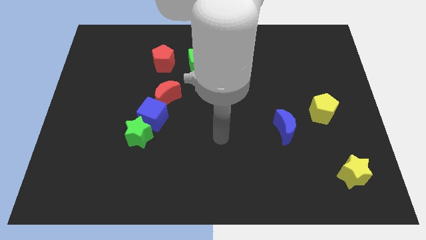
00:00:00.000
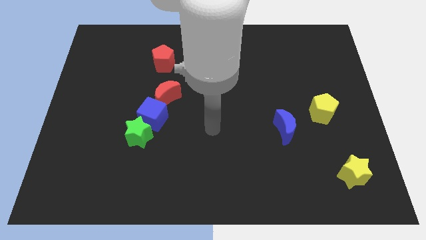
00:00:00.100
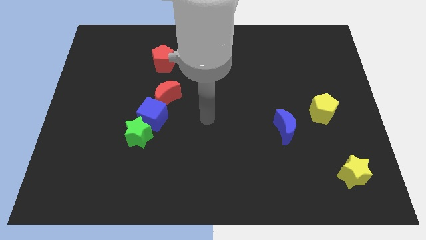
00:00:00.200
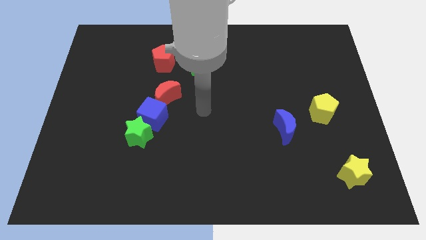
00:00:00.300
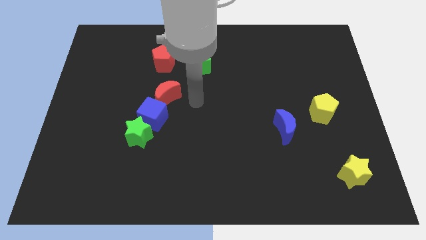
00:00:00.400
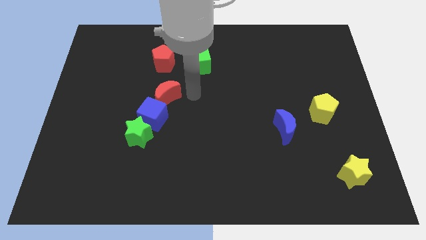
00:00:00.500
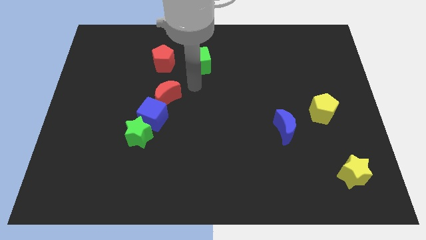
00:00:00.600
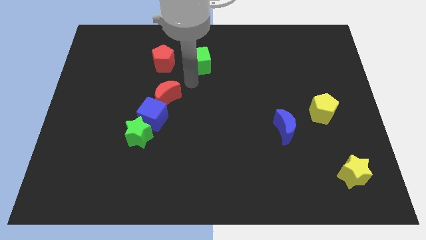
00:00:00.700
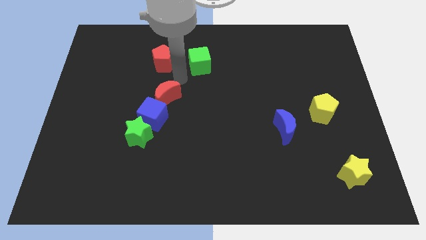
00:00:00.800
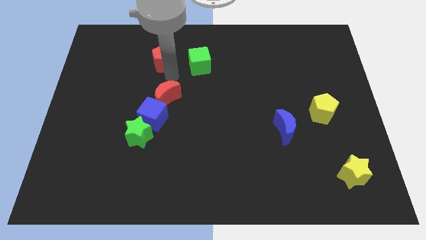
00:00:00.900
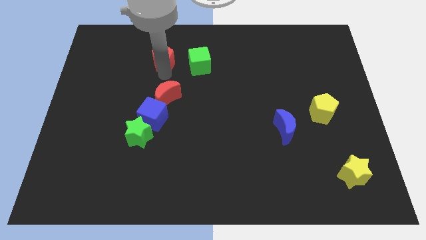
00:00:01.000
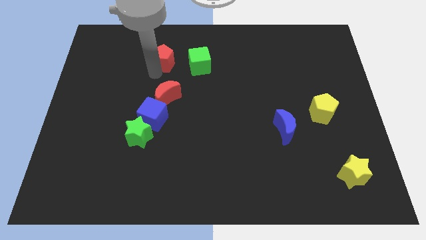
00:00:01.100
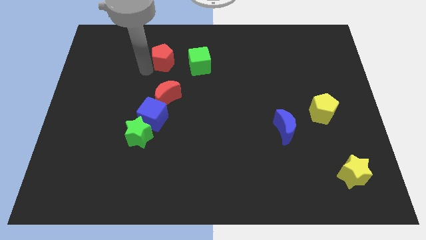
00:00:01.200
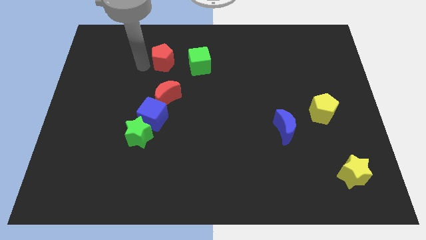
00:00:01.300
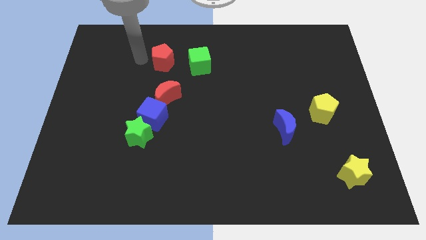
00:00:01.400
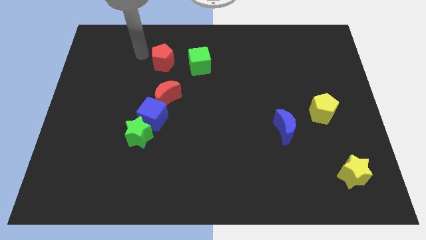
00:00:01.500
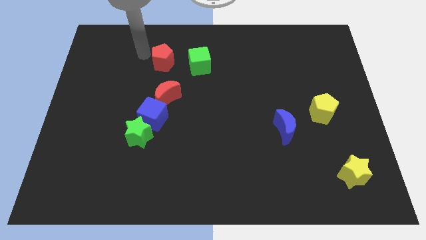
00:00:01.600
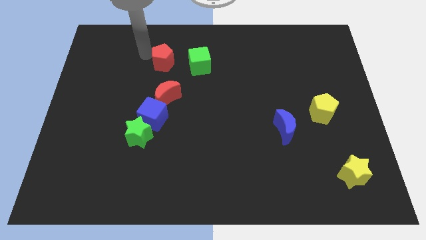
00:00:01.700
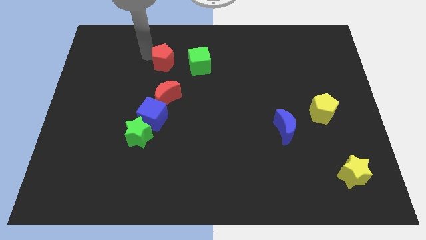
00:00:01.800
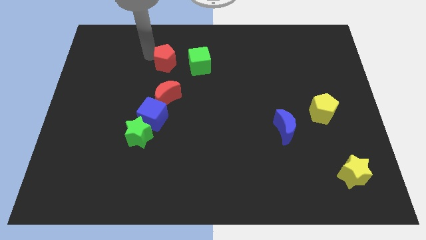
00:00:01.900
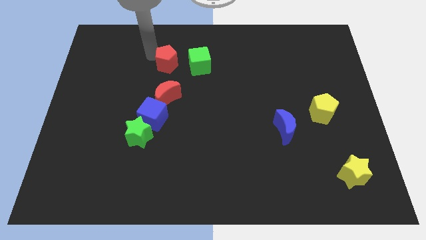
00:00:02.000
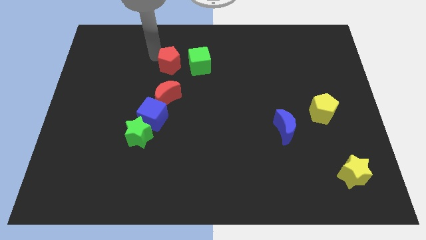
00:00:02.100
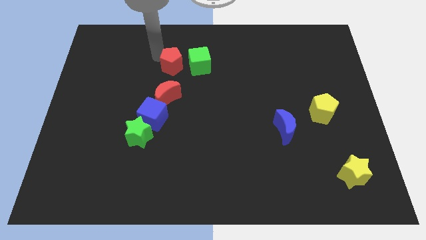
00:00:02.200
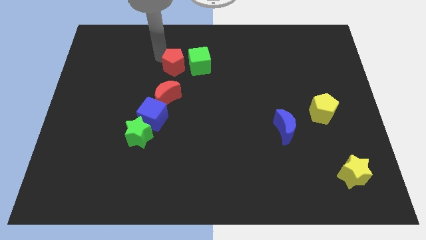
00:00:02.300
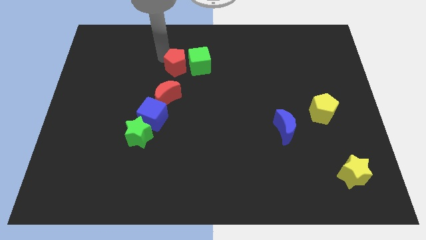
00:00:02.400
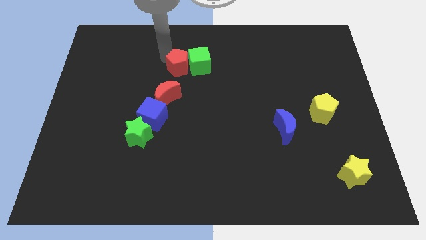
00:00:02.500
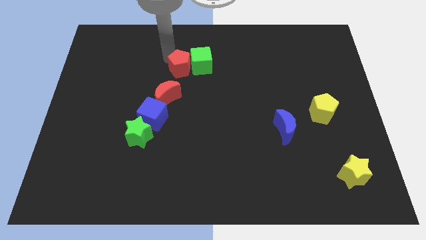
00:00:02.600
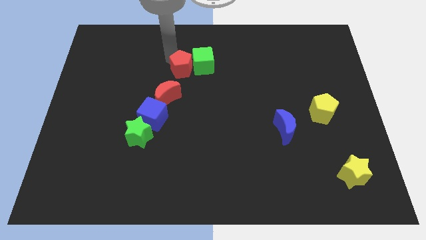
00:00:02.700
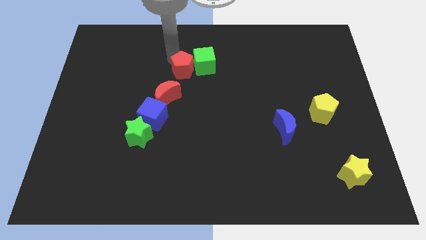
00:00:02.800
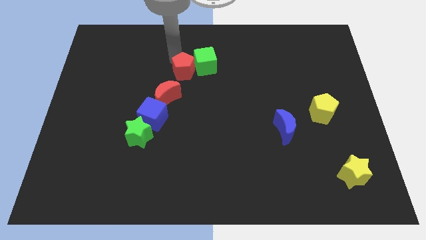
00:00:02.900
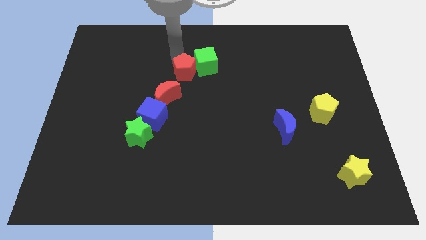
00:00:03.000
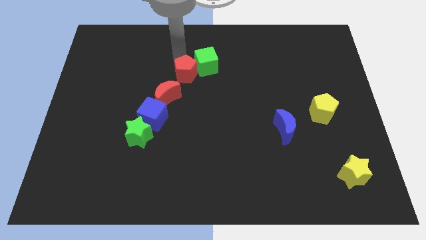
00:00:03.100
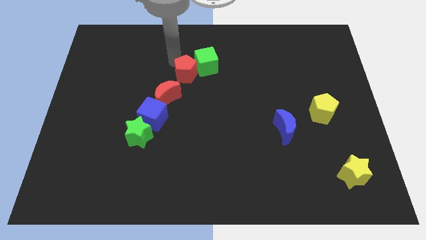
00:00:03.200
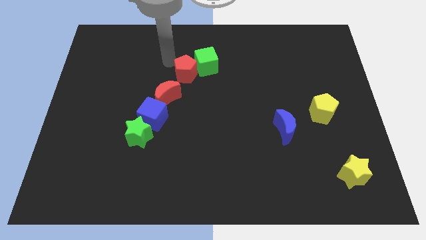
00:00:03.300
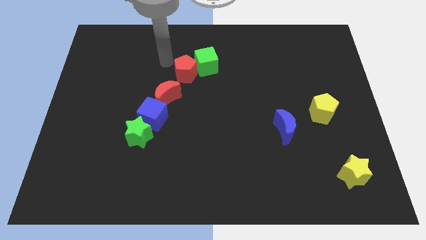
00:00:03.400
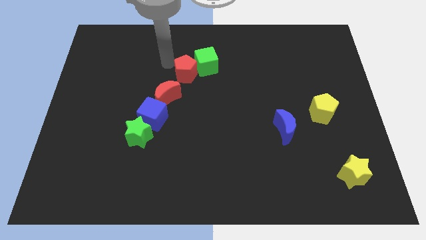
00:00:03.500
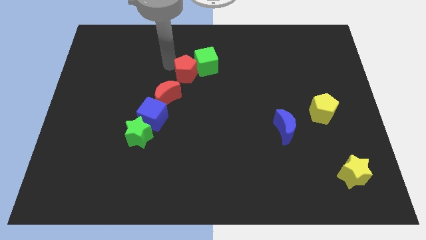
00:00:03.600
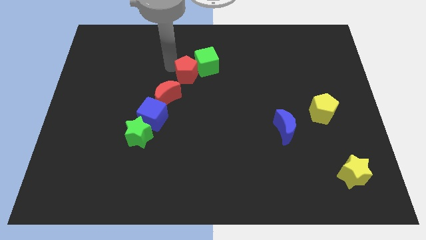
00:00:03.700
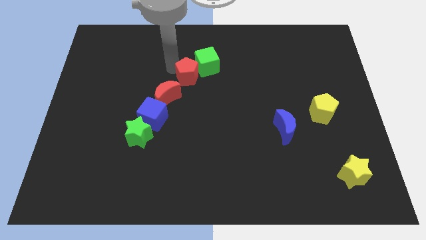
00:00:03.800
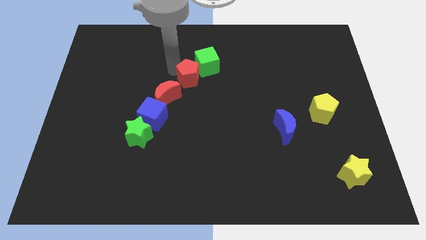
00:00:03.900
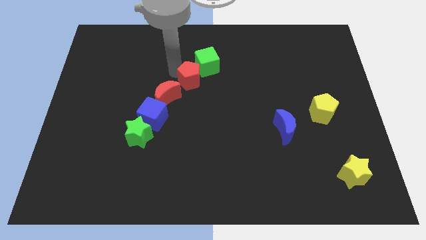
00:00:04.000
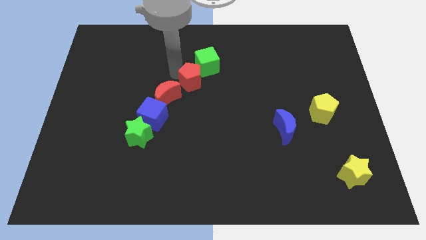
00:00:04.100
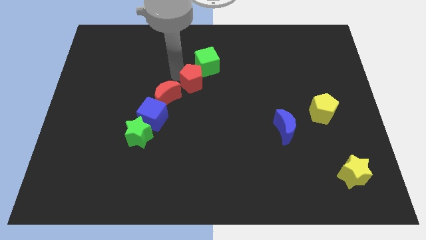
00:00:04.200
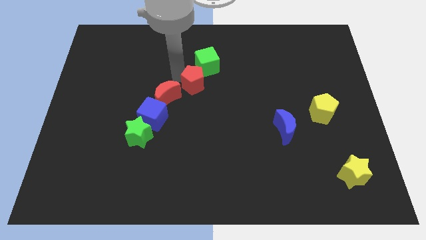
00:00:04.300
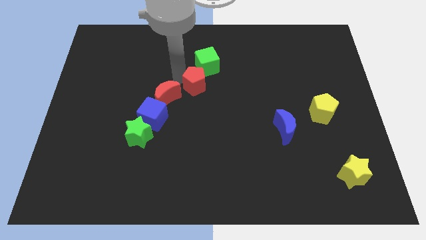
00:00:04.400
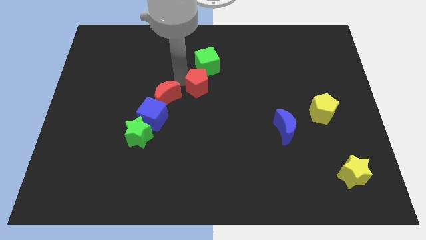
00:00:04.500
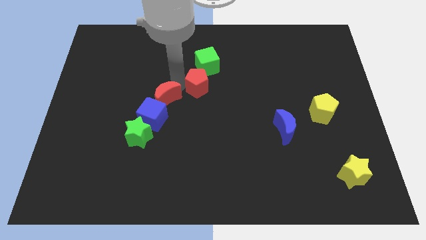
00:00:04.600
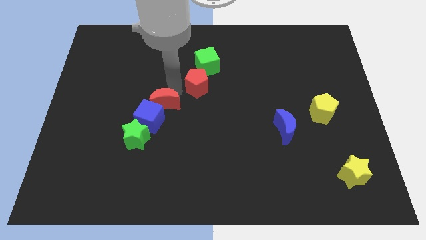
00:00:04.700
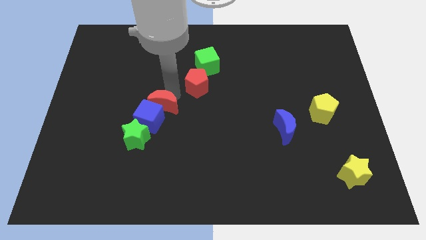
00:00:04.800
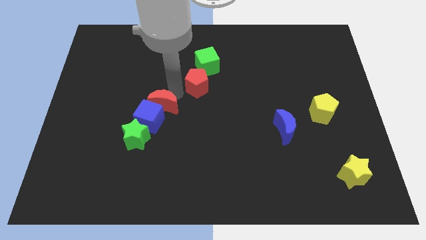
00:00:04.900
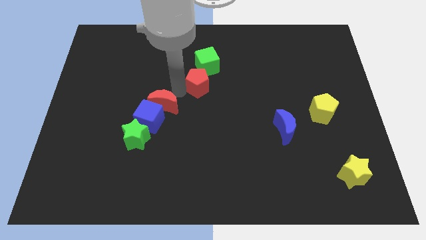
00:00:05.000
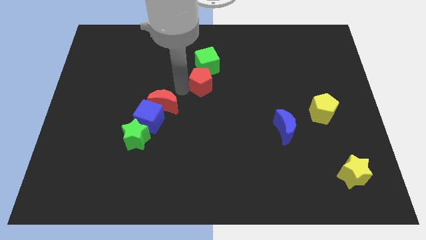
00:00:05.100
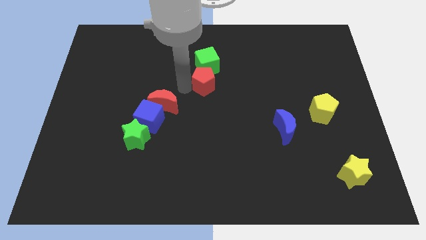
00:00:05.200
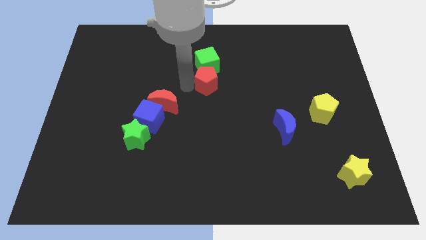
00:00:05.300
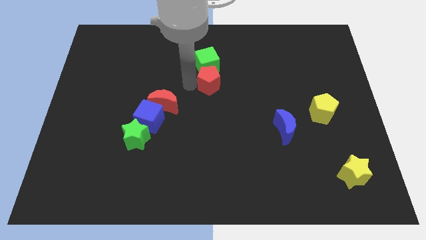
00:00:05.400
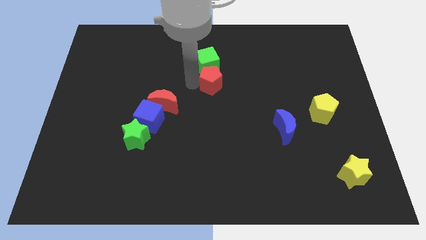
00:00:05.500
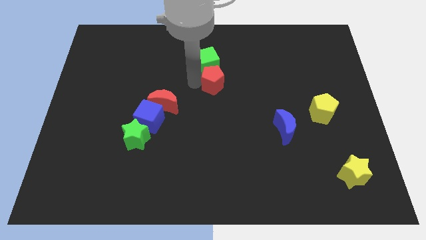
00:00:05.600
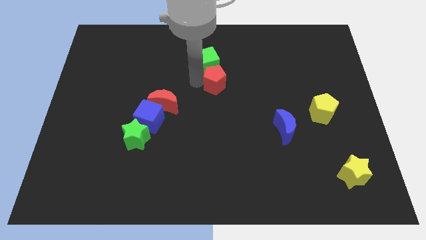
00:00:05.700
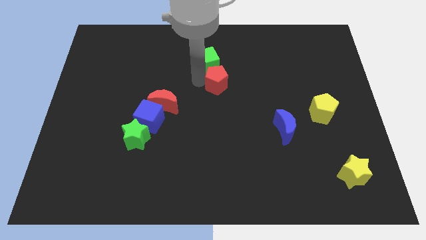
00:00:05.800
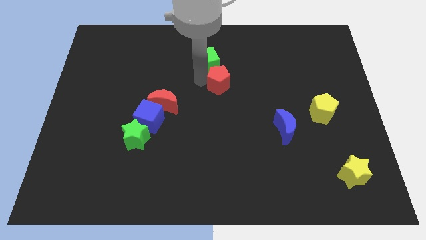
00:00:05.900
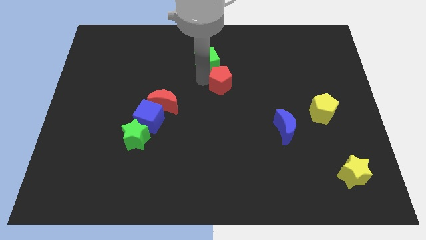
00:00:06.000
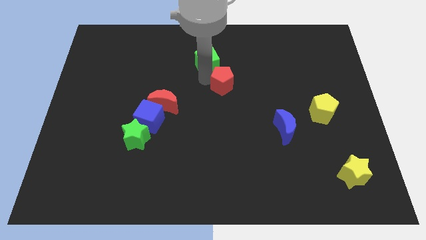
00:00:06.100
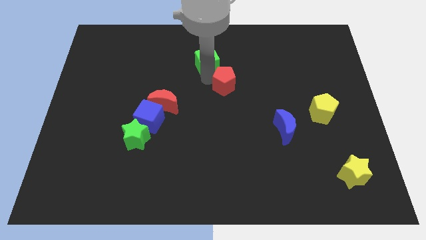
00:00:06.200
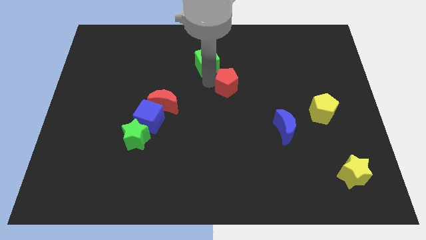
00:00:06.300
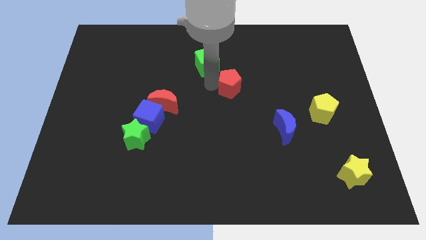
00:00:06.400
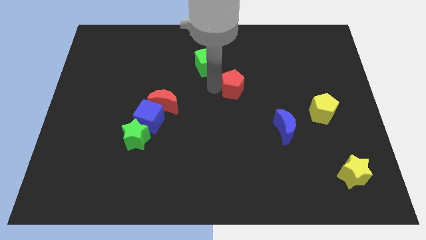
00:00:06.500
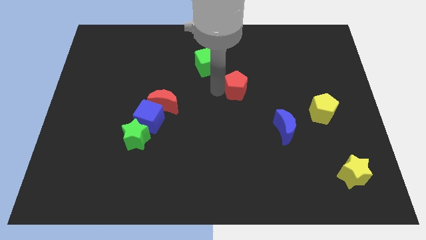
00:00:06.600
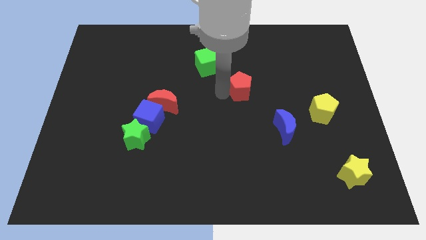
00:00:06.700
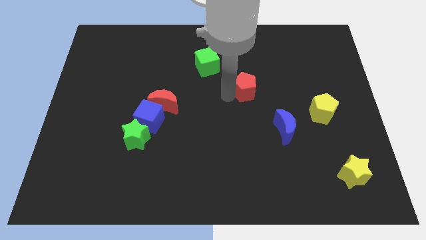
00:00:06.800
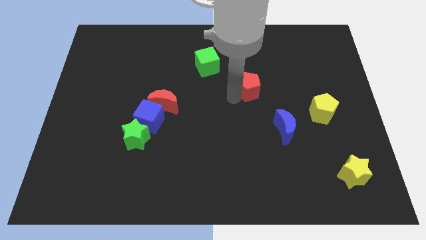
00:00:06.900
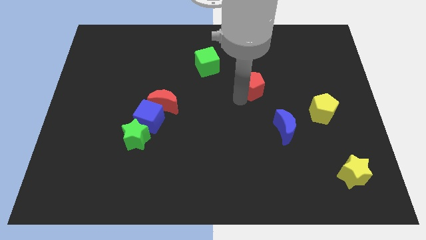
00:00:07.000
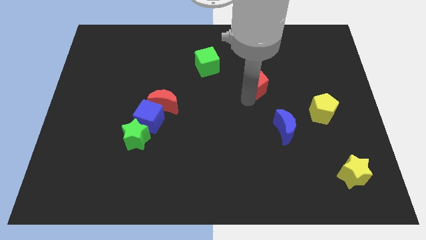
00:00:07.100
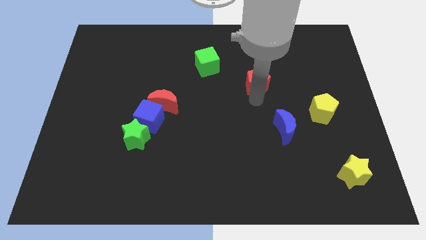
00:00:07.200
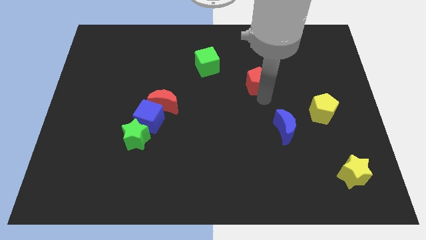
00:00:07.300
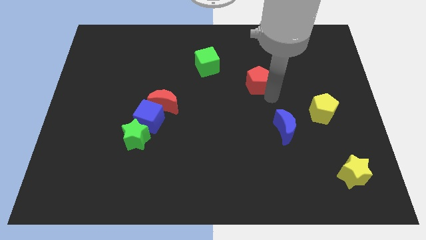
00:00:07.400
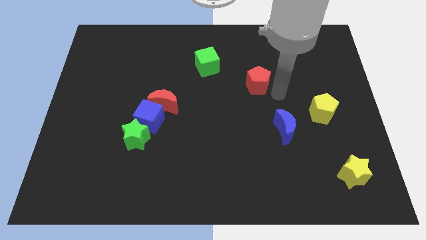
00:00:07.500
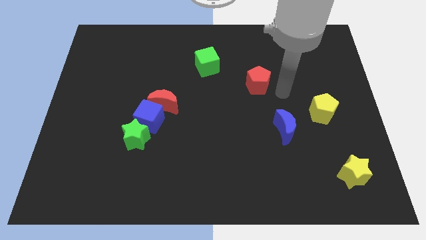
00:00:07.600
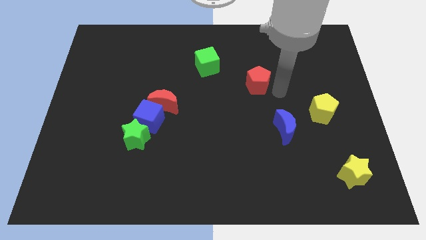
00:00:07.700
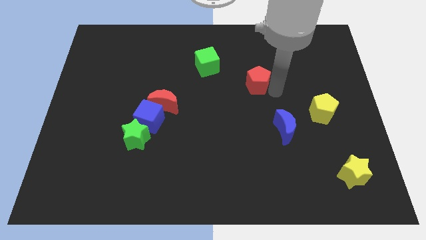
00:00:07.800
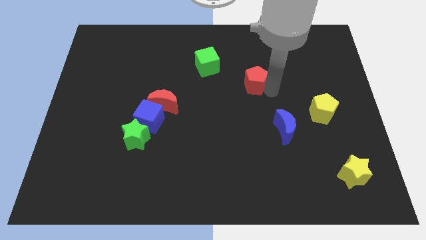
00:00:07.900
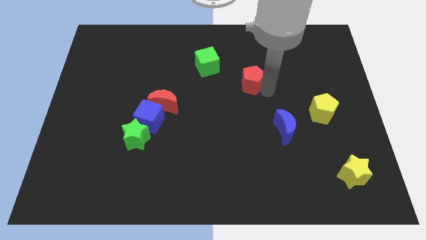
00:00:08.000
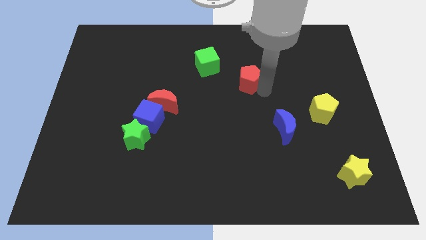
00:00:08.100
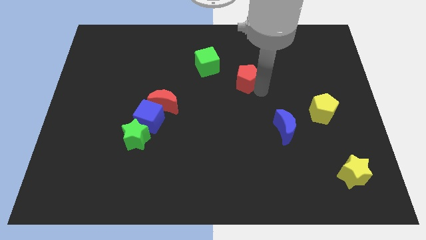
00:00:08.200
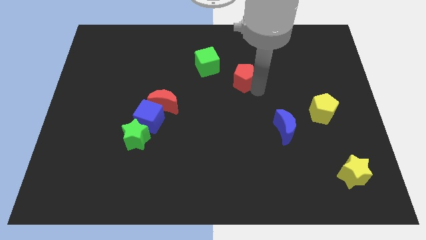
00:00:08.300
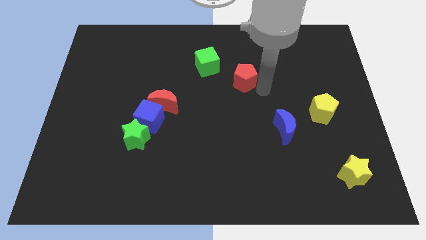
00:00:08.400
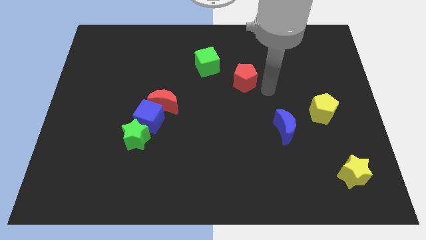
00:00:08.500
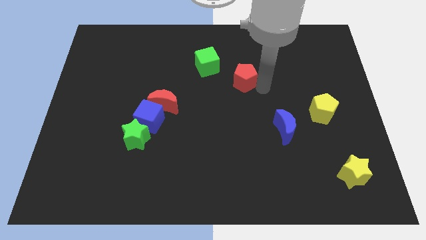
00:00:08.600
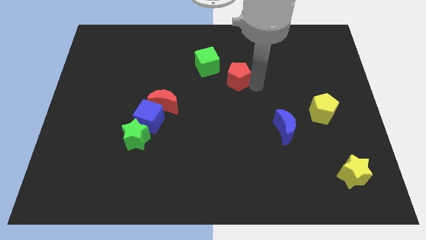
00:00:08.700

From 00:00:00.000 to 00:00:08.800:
put the red pentagon to the right of the green cube
